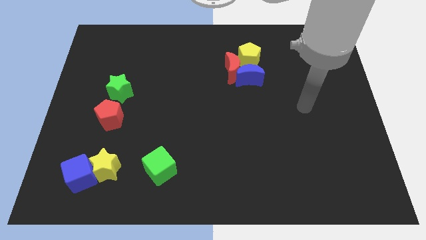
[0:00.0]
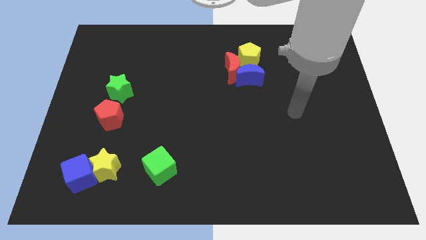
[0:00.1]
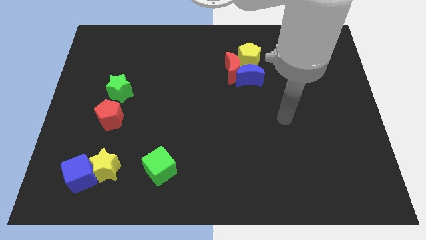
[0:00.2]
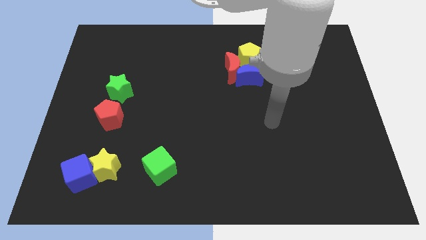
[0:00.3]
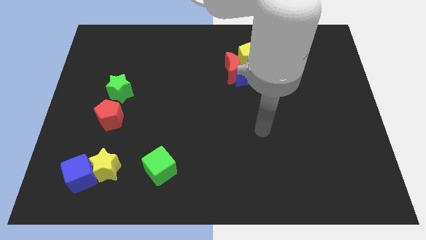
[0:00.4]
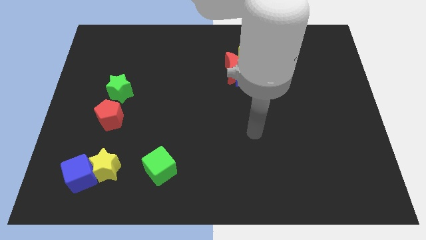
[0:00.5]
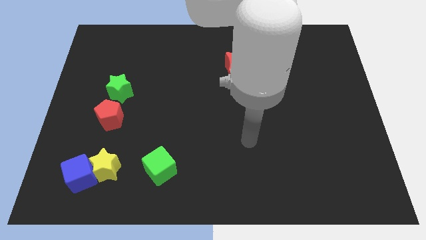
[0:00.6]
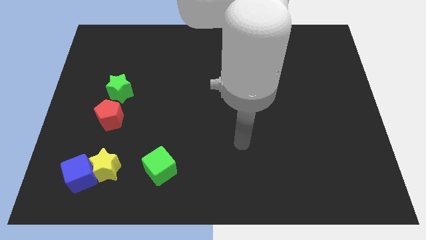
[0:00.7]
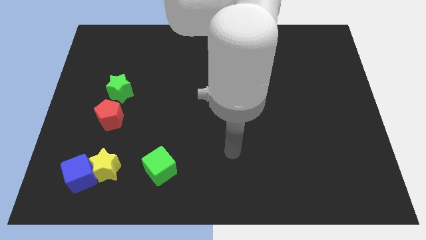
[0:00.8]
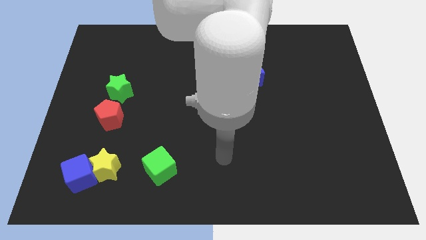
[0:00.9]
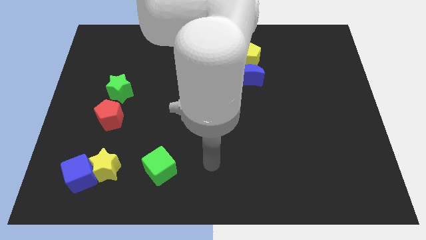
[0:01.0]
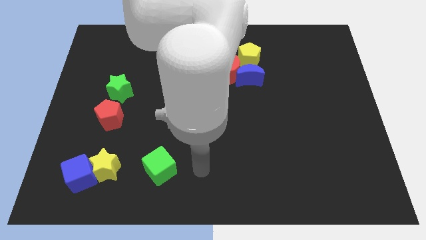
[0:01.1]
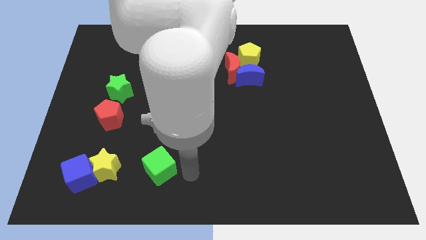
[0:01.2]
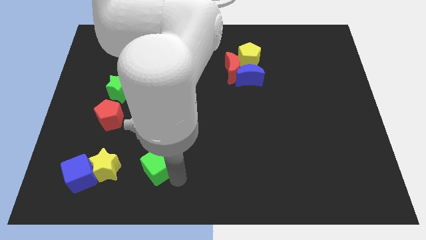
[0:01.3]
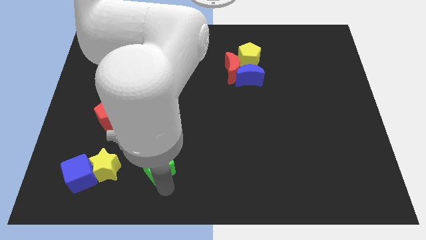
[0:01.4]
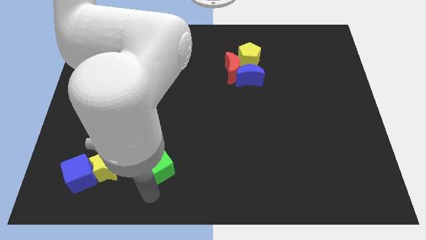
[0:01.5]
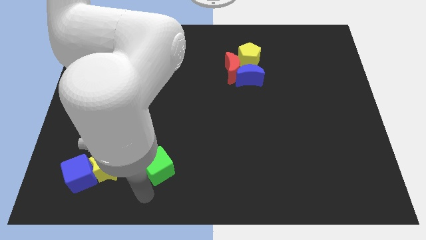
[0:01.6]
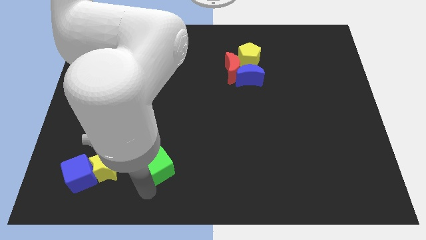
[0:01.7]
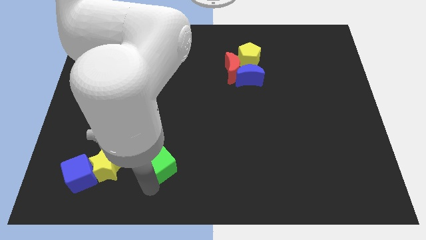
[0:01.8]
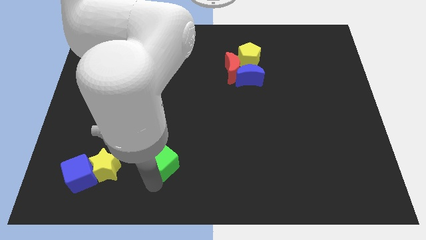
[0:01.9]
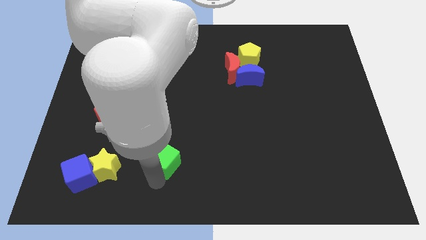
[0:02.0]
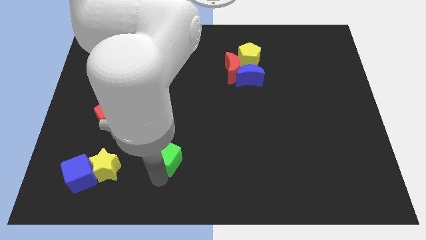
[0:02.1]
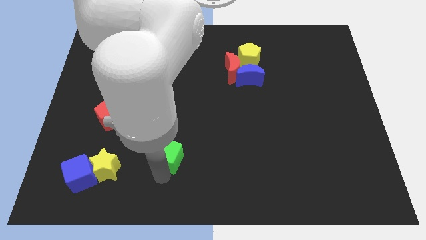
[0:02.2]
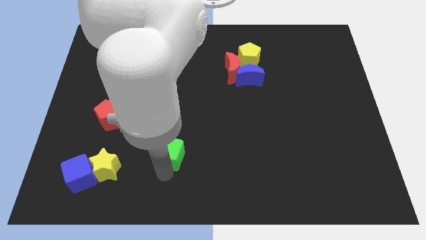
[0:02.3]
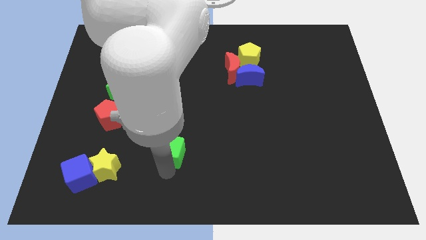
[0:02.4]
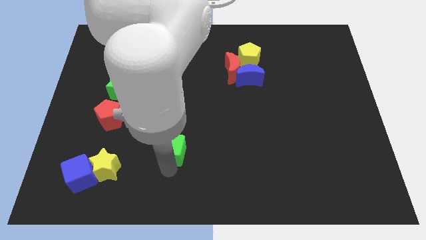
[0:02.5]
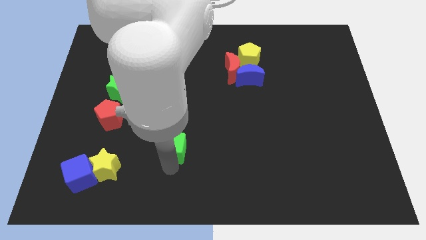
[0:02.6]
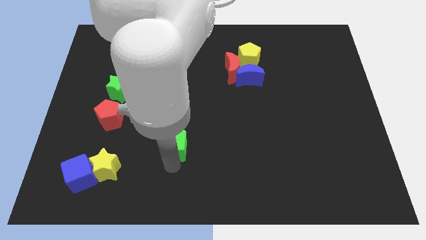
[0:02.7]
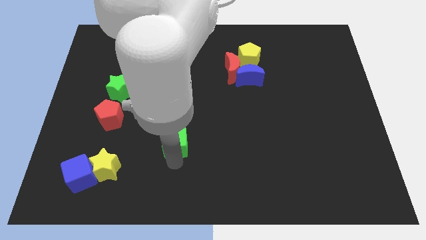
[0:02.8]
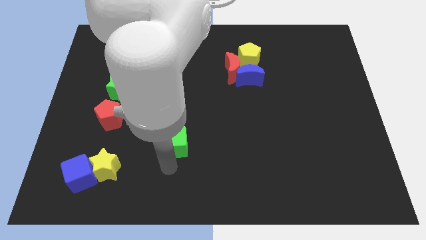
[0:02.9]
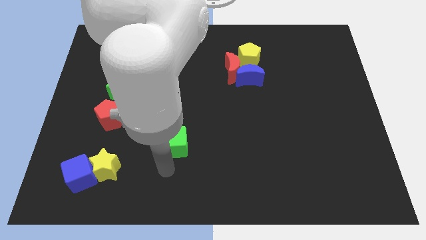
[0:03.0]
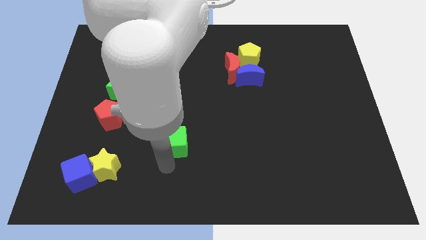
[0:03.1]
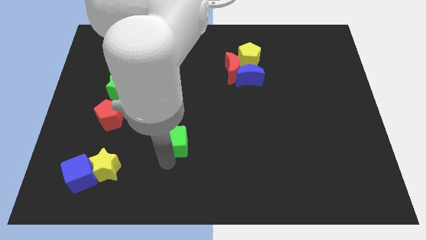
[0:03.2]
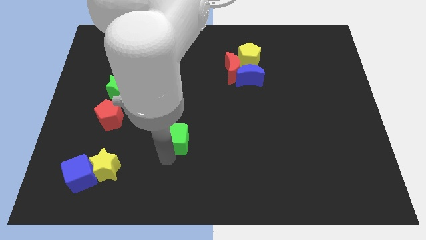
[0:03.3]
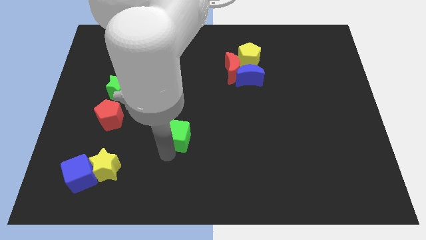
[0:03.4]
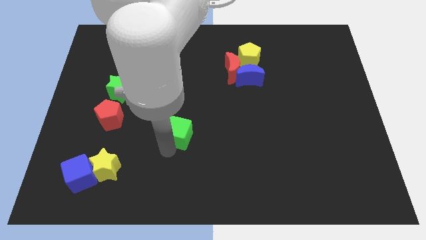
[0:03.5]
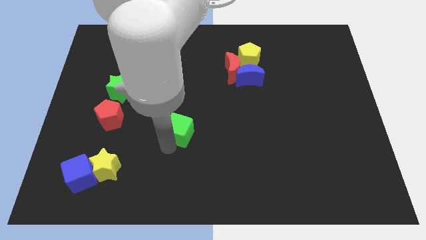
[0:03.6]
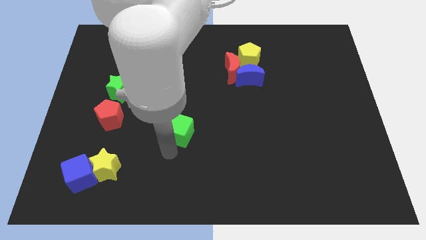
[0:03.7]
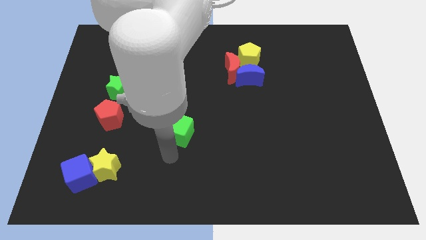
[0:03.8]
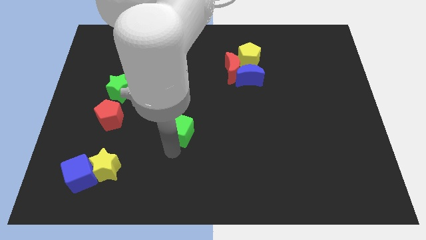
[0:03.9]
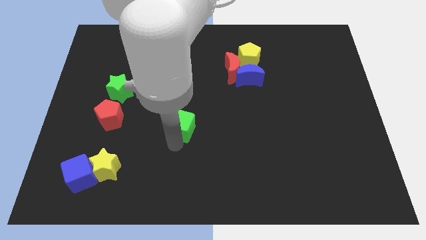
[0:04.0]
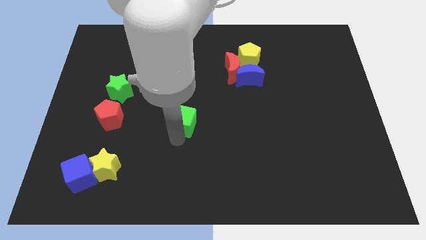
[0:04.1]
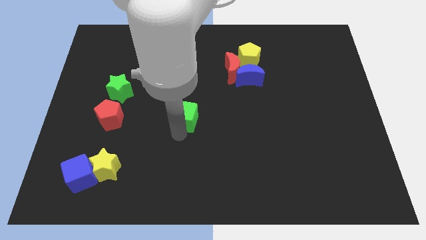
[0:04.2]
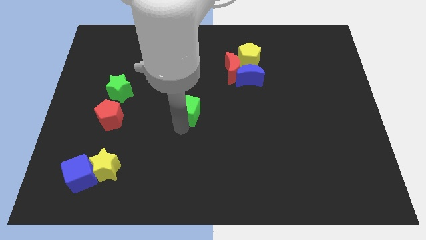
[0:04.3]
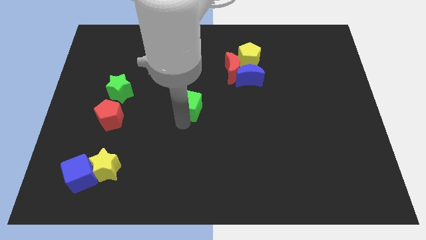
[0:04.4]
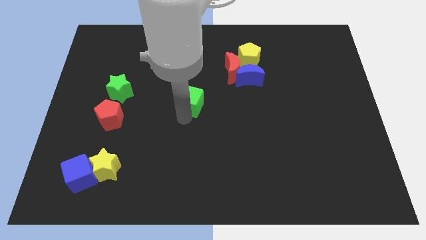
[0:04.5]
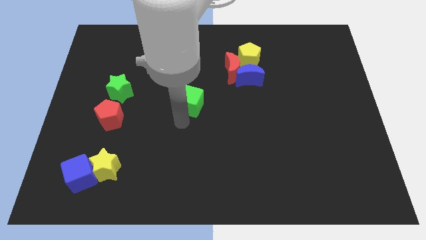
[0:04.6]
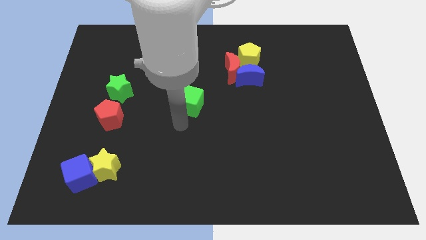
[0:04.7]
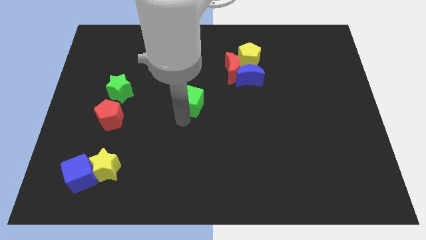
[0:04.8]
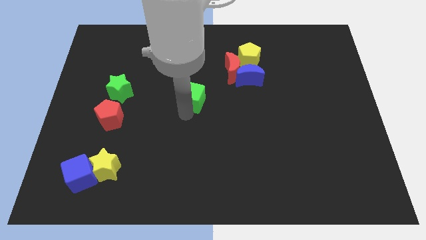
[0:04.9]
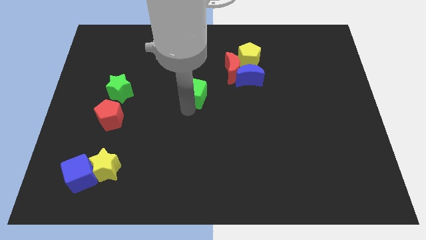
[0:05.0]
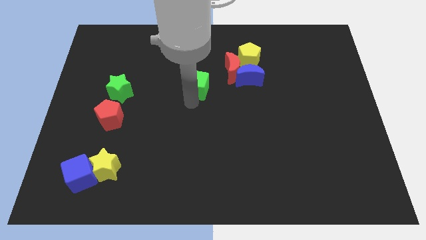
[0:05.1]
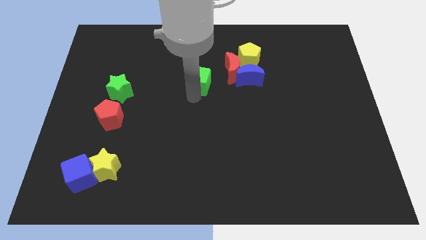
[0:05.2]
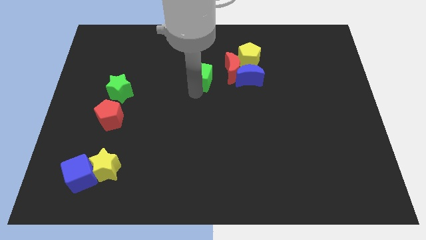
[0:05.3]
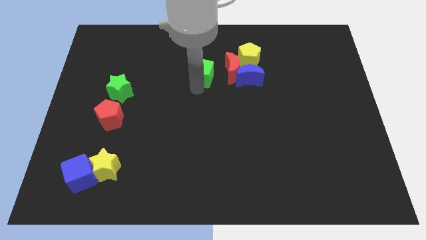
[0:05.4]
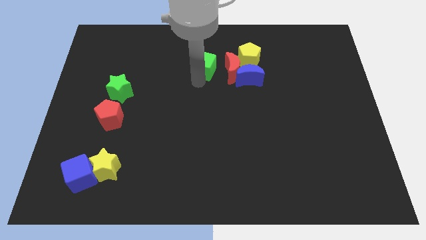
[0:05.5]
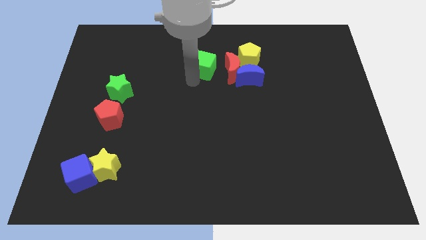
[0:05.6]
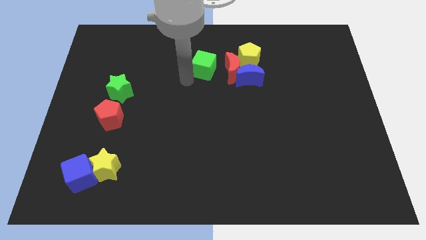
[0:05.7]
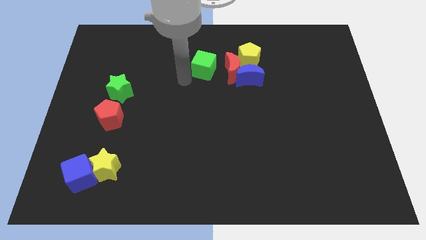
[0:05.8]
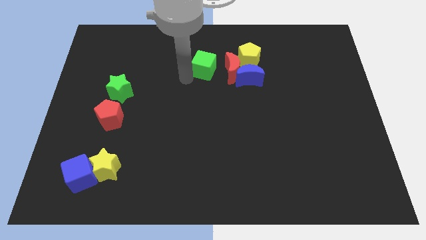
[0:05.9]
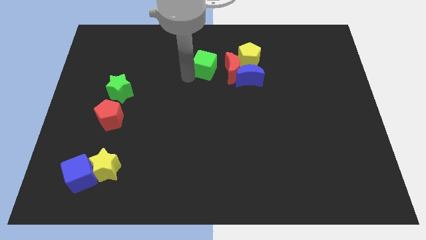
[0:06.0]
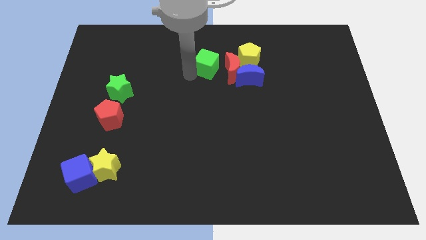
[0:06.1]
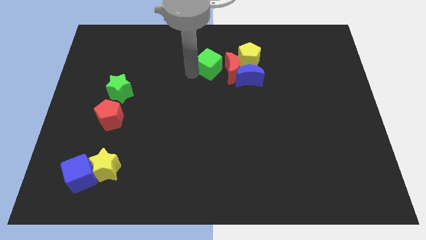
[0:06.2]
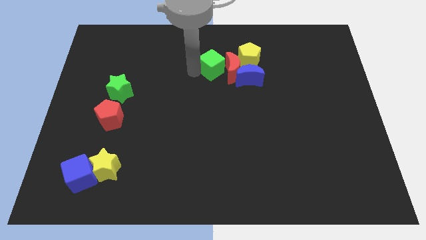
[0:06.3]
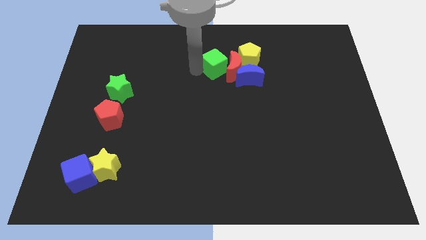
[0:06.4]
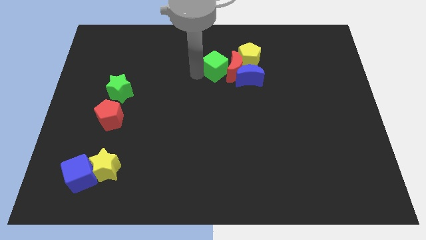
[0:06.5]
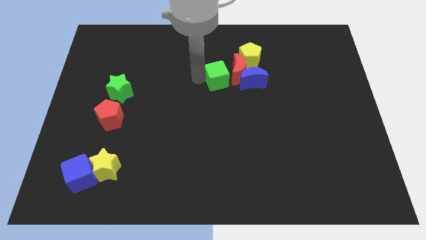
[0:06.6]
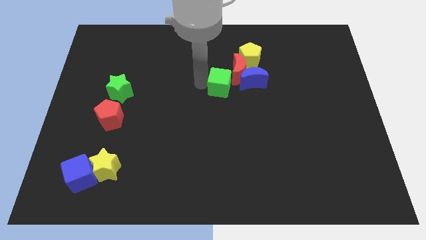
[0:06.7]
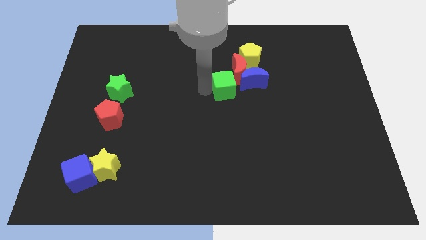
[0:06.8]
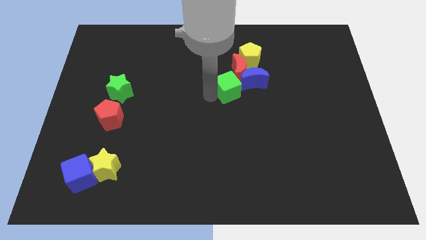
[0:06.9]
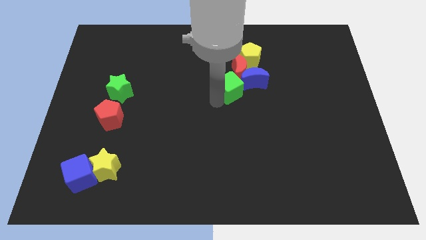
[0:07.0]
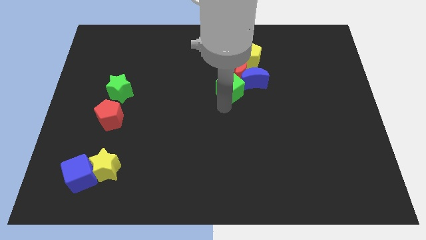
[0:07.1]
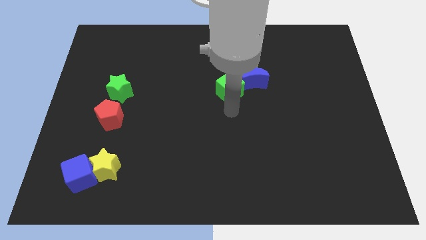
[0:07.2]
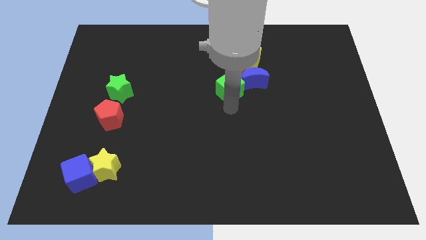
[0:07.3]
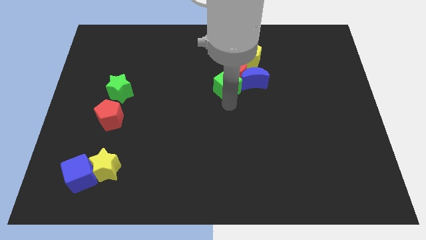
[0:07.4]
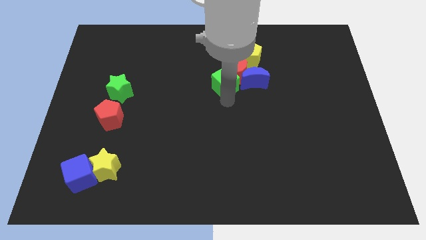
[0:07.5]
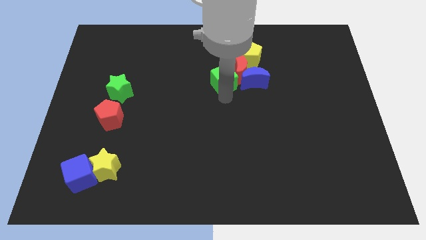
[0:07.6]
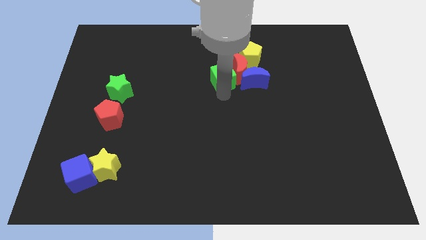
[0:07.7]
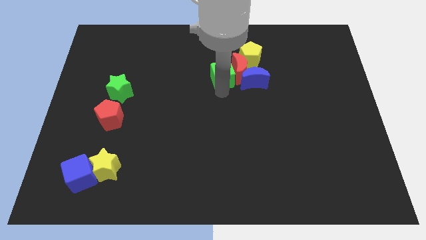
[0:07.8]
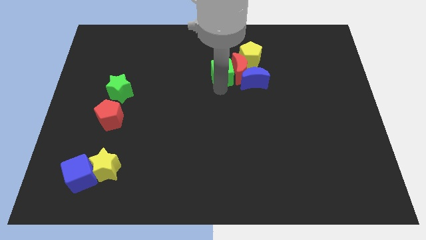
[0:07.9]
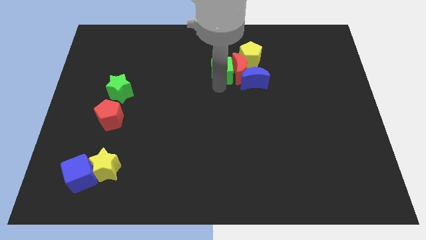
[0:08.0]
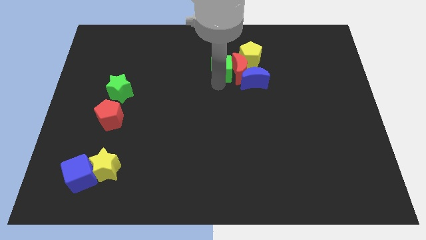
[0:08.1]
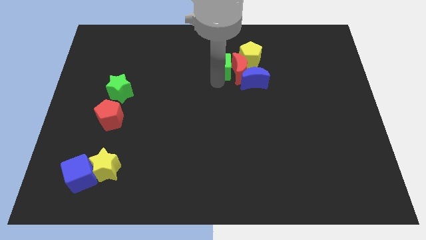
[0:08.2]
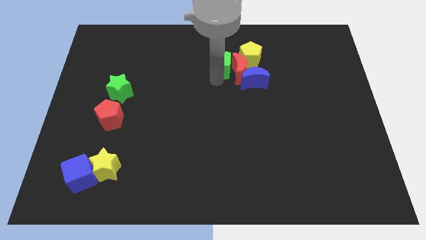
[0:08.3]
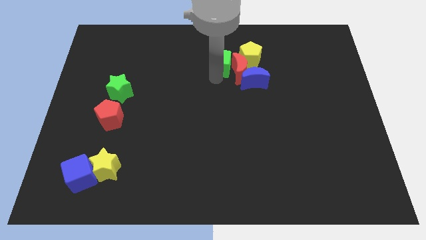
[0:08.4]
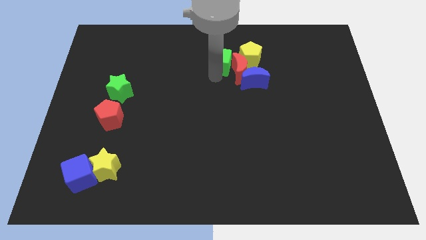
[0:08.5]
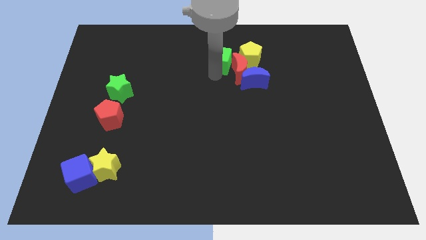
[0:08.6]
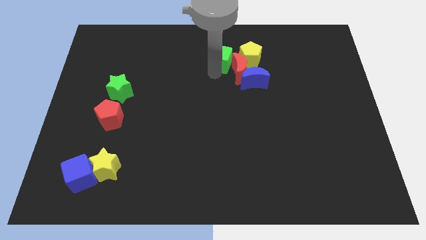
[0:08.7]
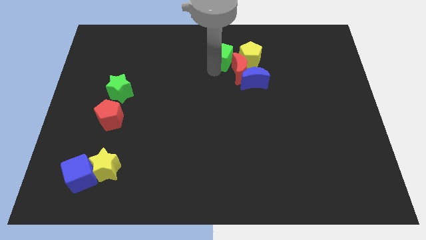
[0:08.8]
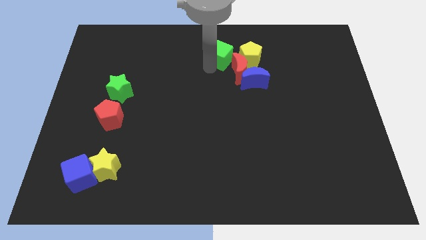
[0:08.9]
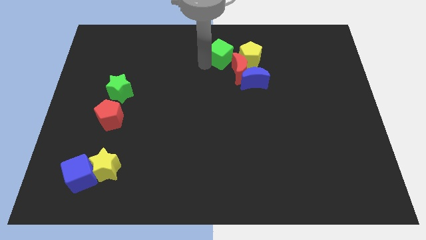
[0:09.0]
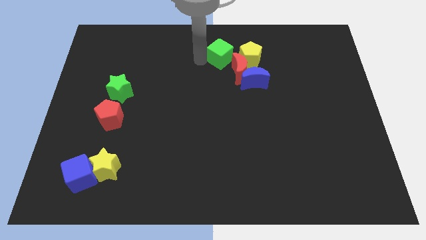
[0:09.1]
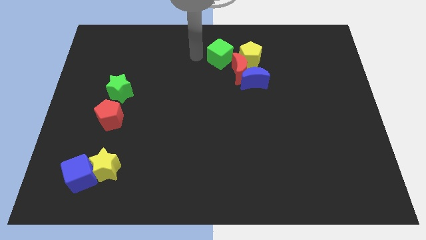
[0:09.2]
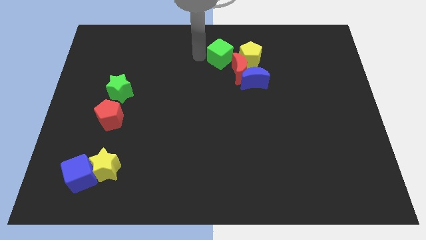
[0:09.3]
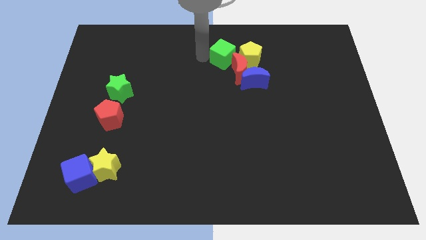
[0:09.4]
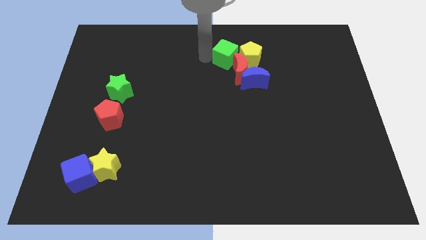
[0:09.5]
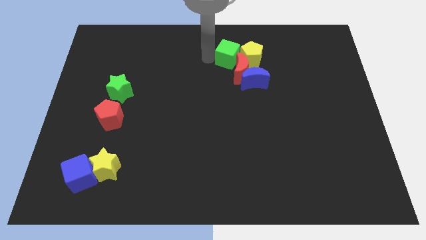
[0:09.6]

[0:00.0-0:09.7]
move the green cube to the yellow pentagon
